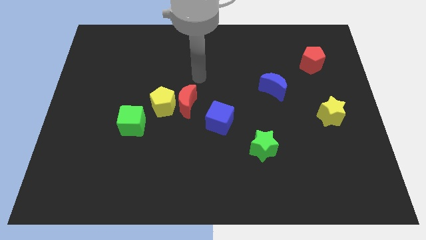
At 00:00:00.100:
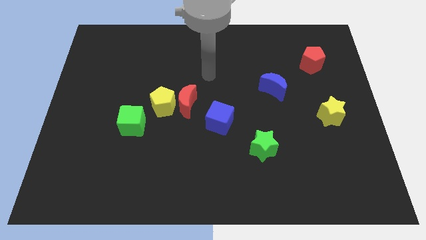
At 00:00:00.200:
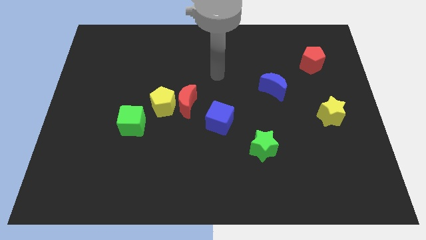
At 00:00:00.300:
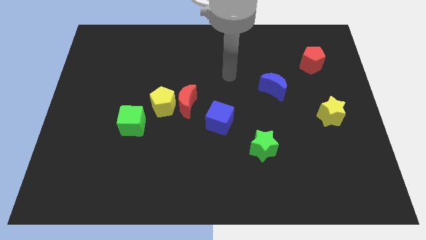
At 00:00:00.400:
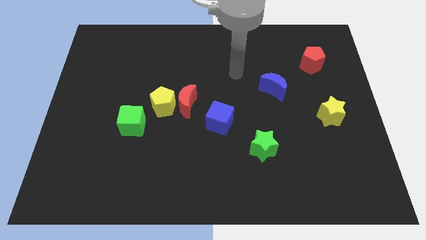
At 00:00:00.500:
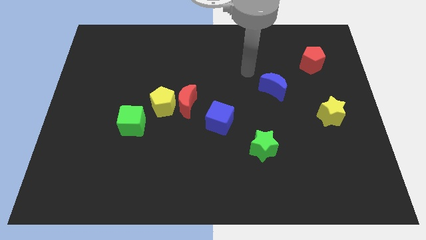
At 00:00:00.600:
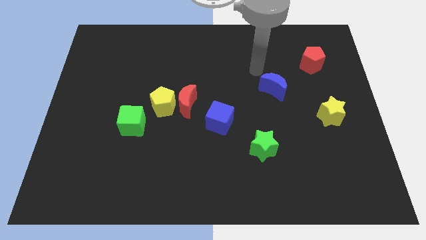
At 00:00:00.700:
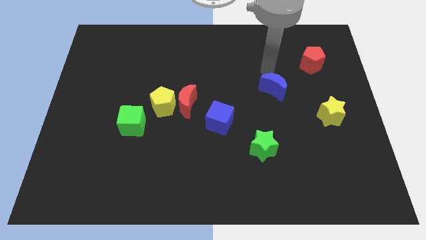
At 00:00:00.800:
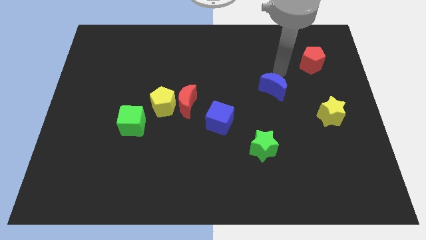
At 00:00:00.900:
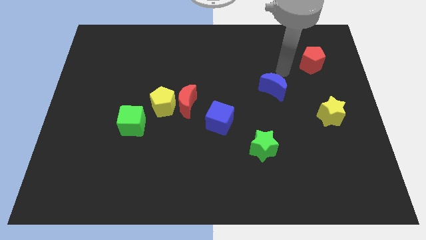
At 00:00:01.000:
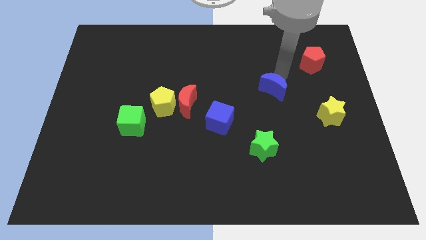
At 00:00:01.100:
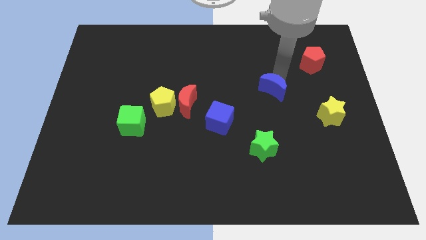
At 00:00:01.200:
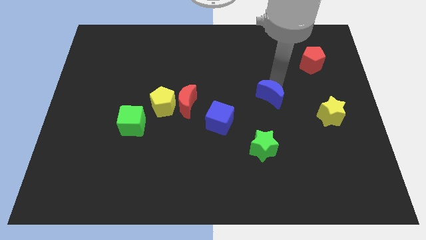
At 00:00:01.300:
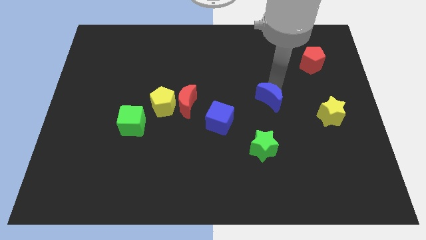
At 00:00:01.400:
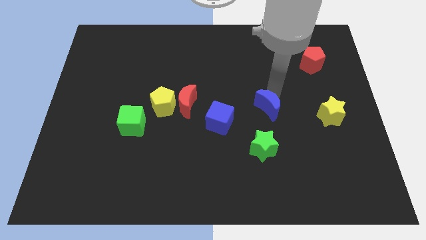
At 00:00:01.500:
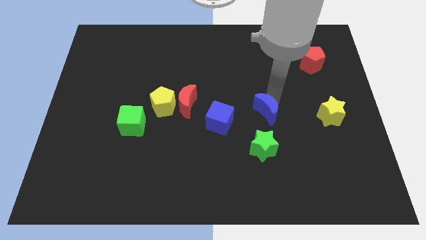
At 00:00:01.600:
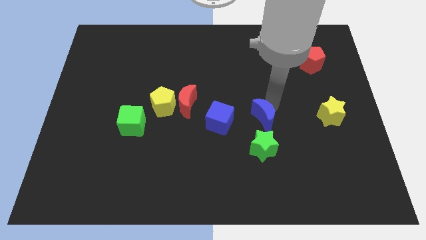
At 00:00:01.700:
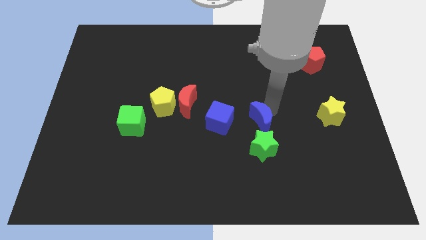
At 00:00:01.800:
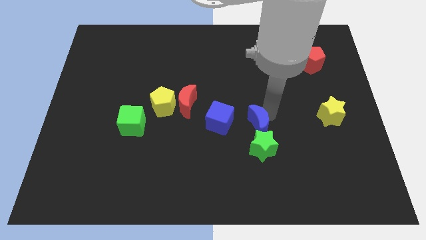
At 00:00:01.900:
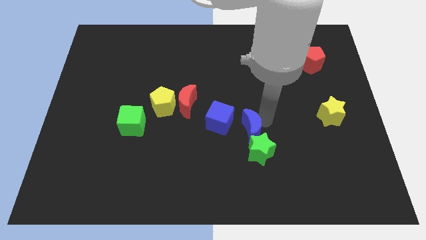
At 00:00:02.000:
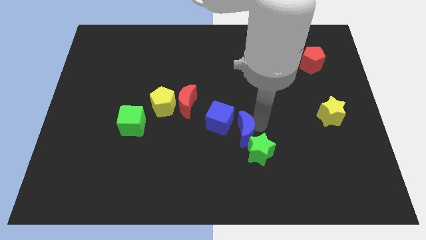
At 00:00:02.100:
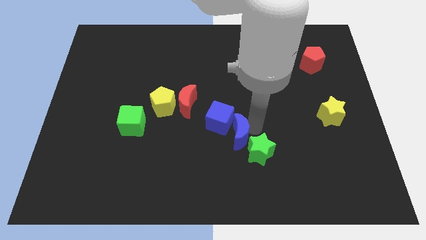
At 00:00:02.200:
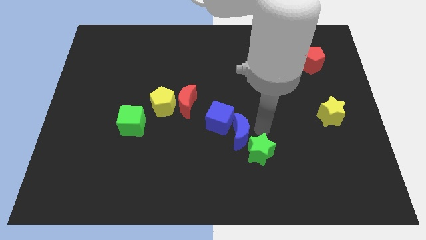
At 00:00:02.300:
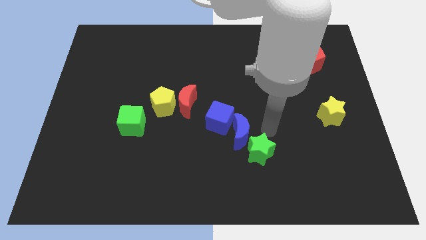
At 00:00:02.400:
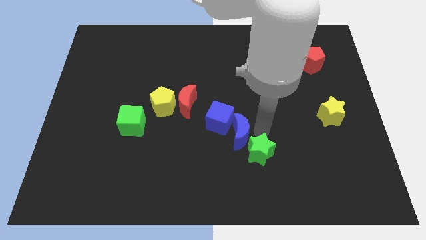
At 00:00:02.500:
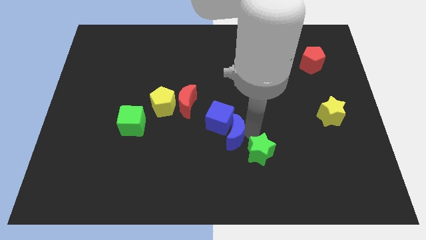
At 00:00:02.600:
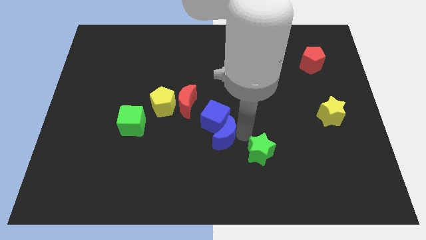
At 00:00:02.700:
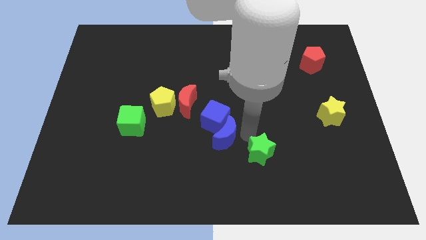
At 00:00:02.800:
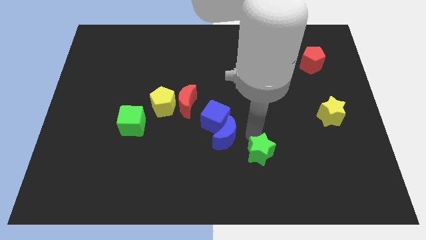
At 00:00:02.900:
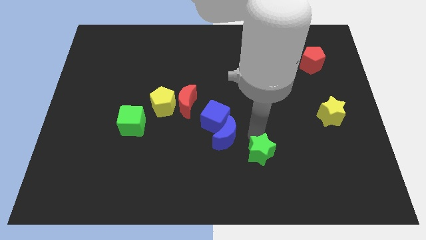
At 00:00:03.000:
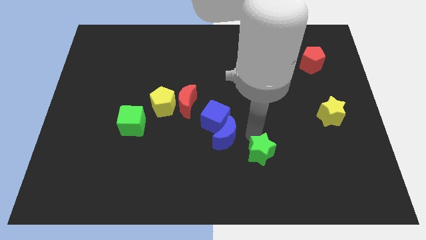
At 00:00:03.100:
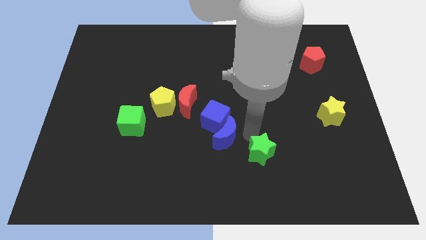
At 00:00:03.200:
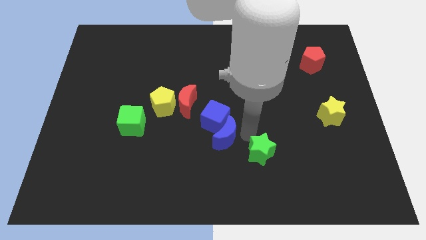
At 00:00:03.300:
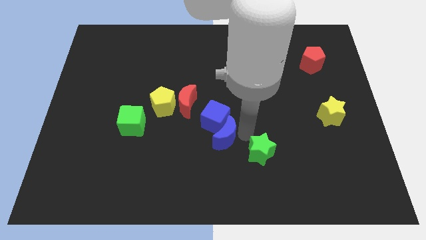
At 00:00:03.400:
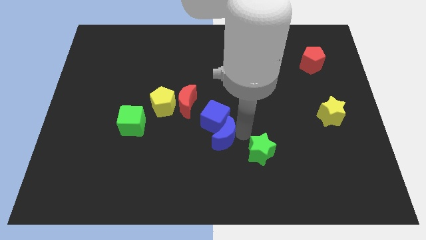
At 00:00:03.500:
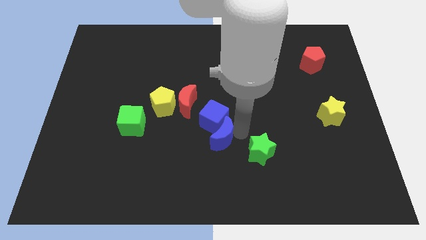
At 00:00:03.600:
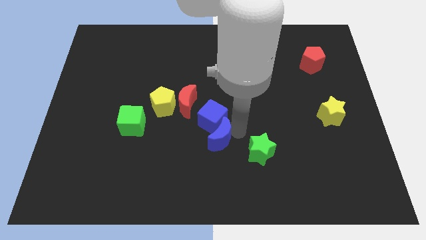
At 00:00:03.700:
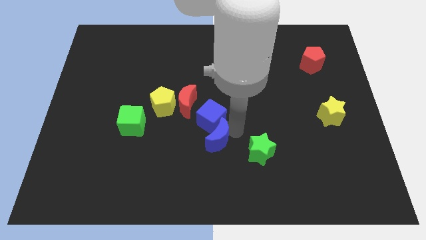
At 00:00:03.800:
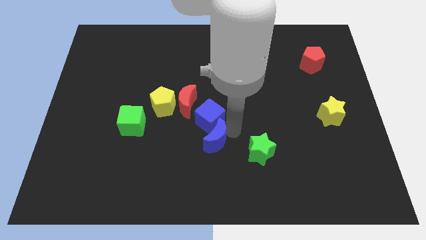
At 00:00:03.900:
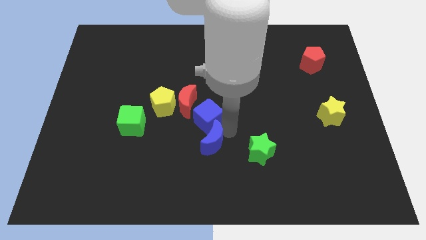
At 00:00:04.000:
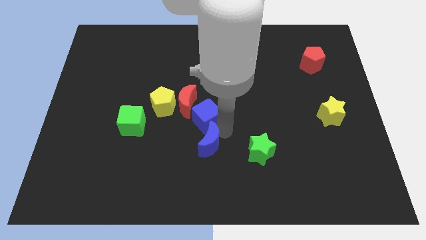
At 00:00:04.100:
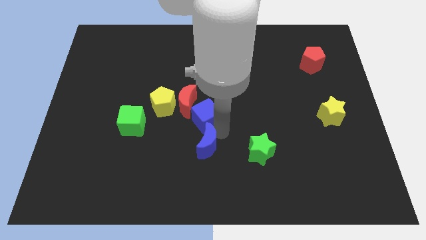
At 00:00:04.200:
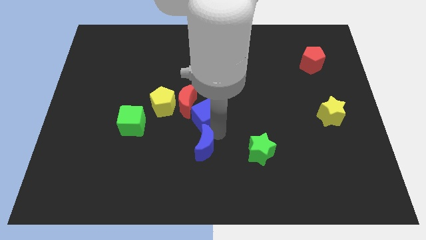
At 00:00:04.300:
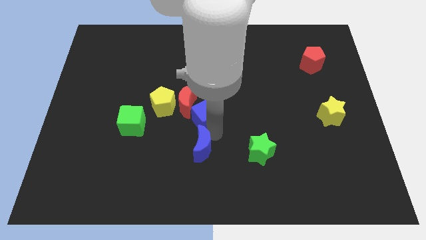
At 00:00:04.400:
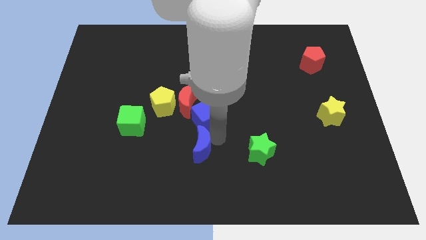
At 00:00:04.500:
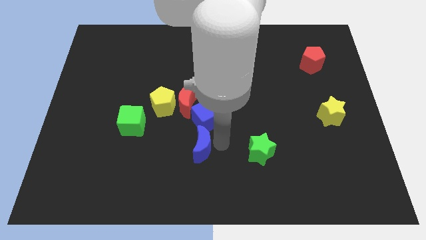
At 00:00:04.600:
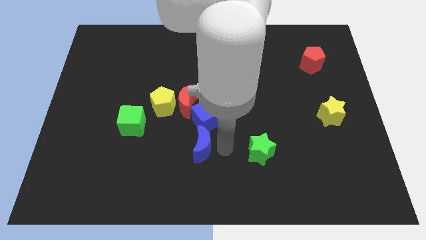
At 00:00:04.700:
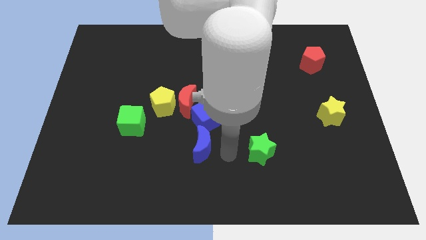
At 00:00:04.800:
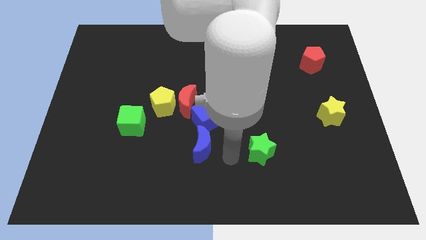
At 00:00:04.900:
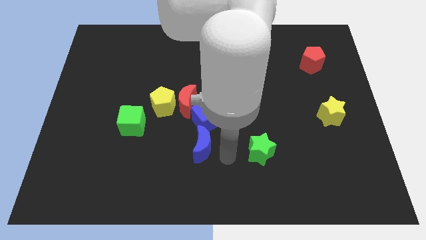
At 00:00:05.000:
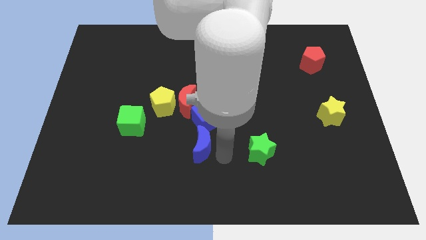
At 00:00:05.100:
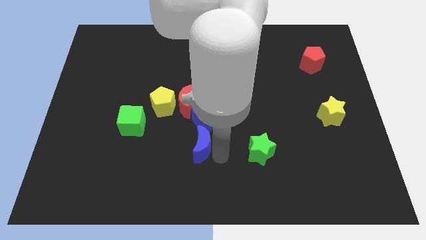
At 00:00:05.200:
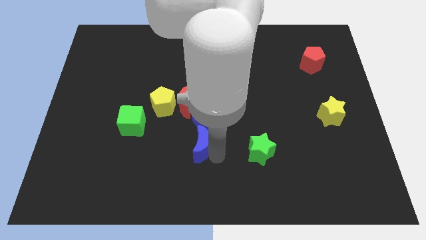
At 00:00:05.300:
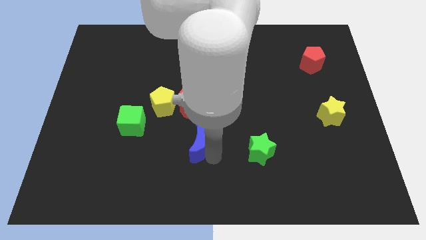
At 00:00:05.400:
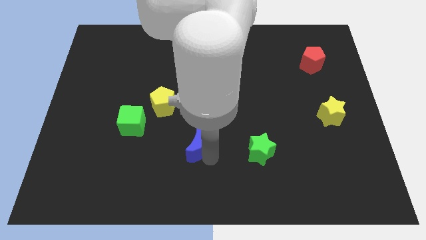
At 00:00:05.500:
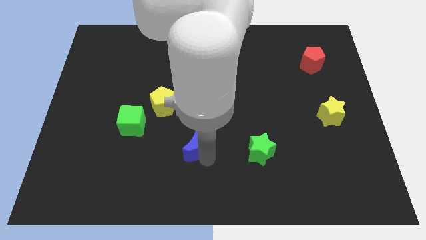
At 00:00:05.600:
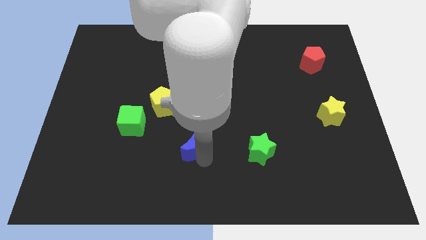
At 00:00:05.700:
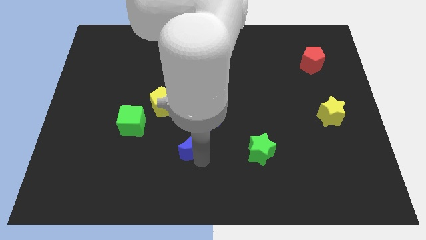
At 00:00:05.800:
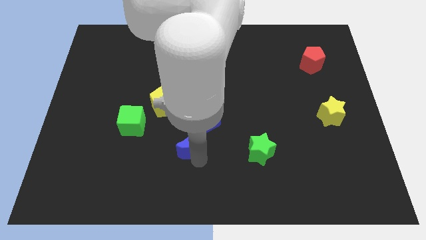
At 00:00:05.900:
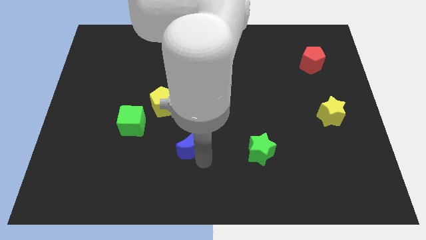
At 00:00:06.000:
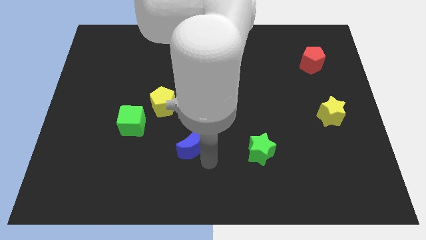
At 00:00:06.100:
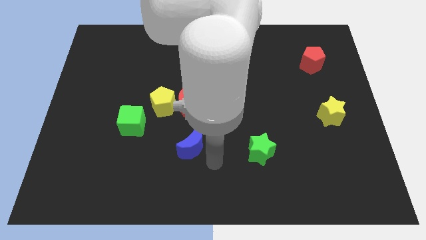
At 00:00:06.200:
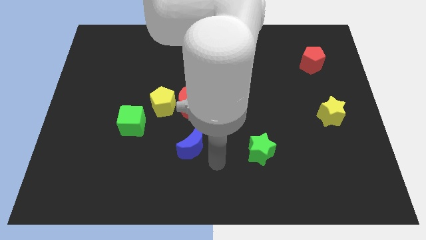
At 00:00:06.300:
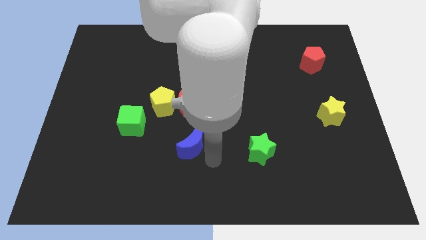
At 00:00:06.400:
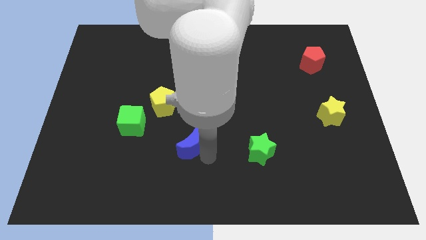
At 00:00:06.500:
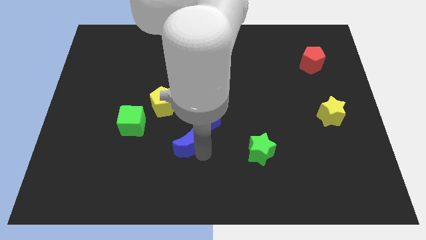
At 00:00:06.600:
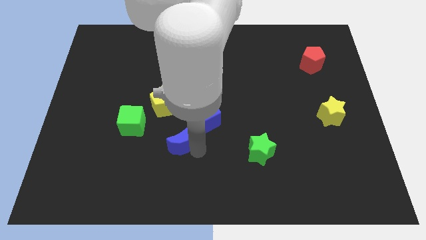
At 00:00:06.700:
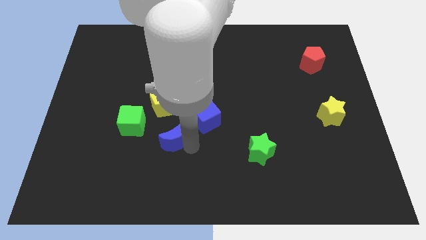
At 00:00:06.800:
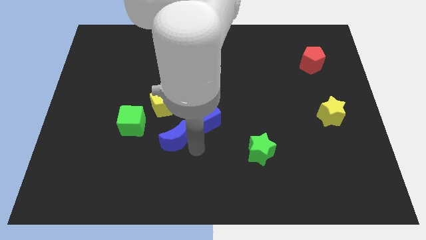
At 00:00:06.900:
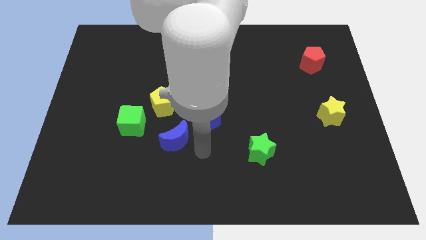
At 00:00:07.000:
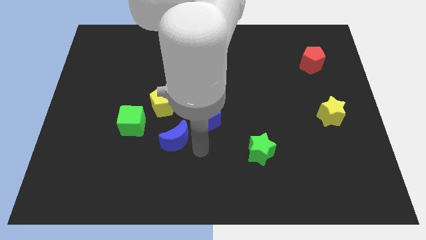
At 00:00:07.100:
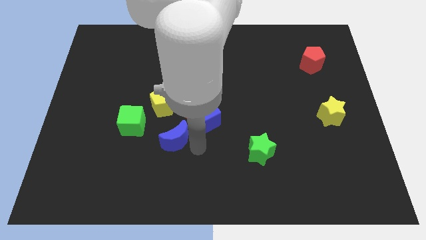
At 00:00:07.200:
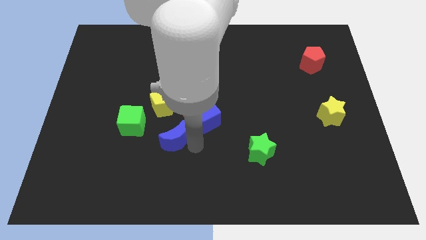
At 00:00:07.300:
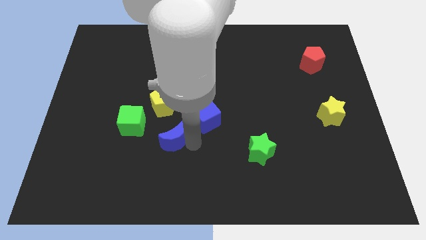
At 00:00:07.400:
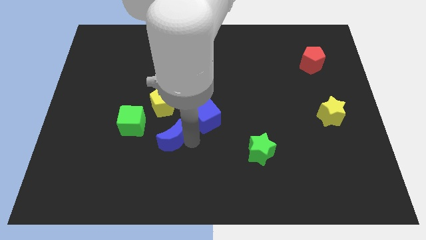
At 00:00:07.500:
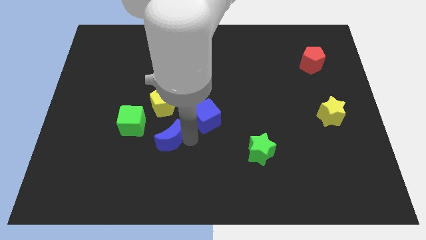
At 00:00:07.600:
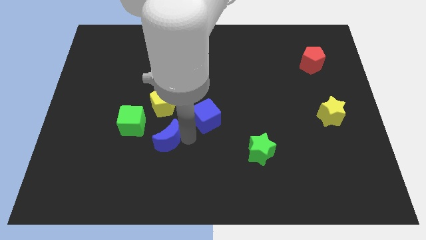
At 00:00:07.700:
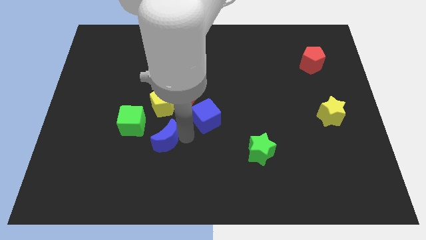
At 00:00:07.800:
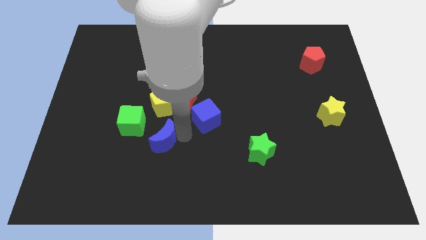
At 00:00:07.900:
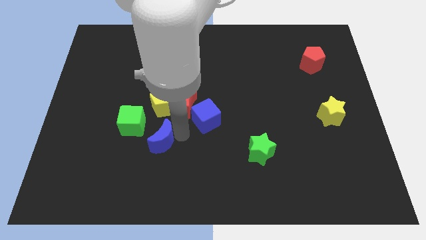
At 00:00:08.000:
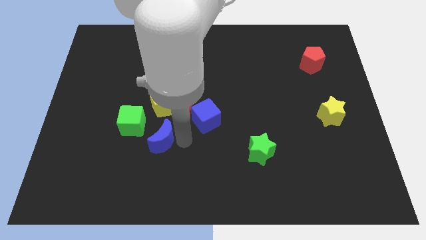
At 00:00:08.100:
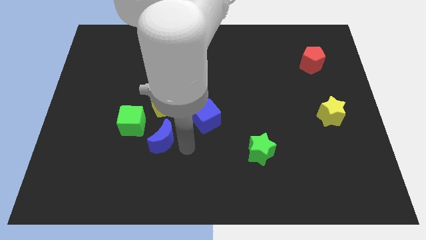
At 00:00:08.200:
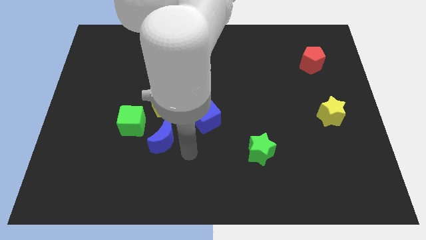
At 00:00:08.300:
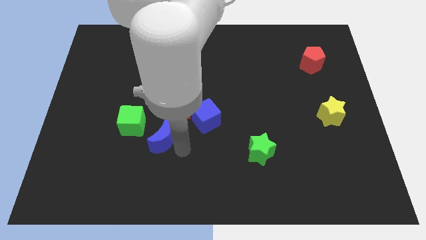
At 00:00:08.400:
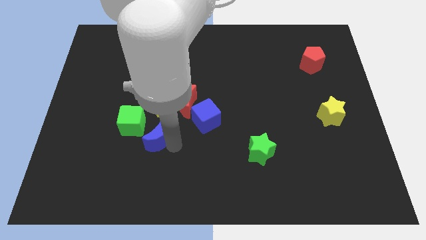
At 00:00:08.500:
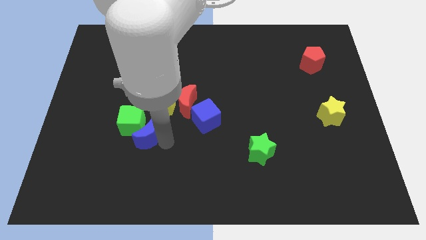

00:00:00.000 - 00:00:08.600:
move the blue moon to the green cube
